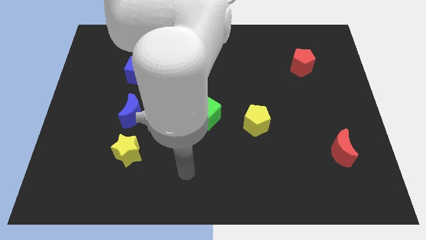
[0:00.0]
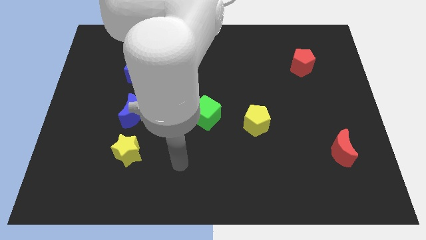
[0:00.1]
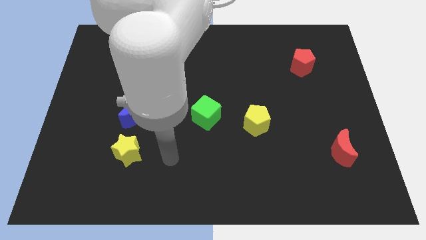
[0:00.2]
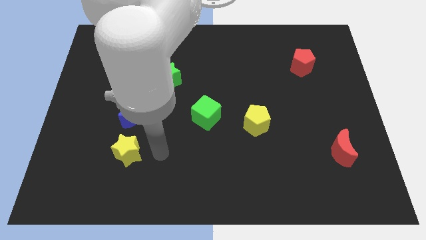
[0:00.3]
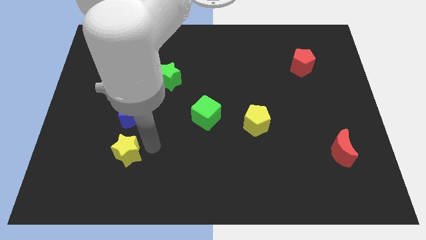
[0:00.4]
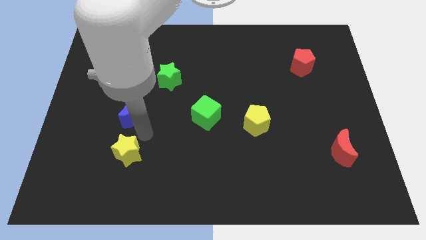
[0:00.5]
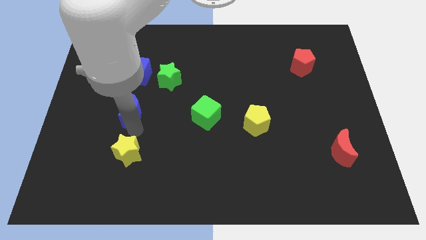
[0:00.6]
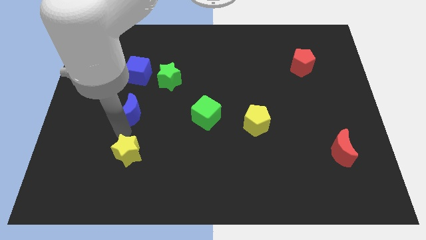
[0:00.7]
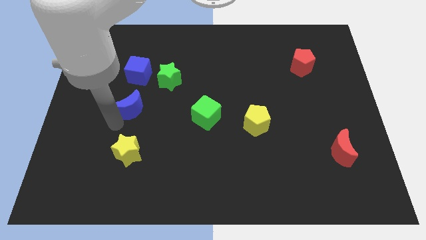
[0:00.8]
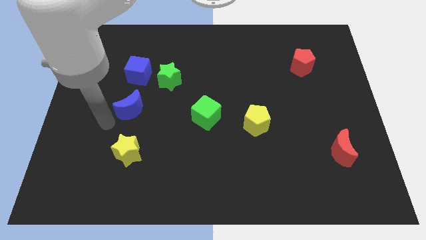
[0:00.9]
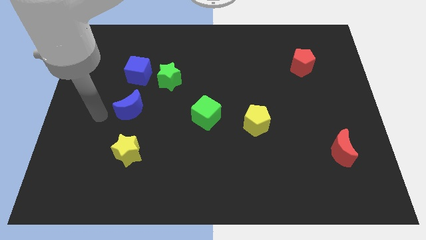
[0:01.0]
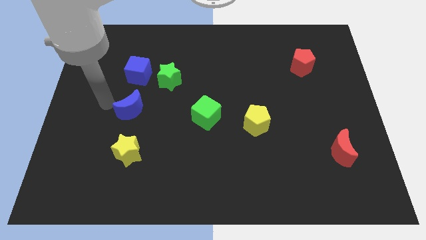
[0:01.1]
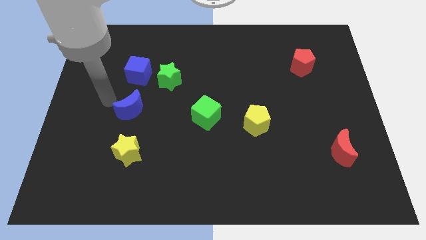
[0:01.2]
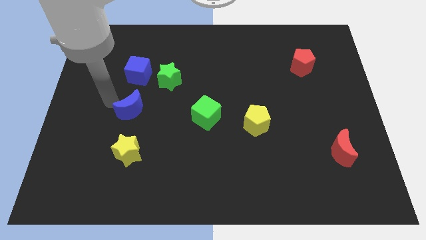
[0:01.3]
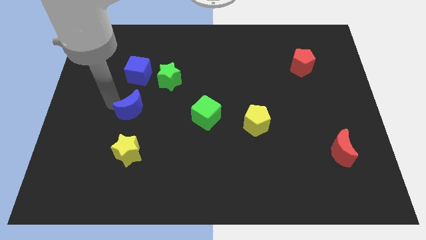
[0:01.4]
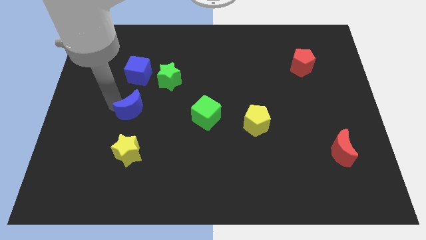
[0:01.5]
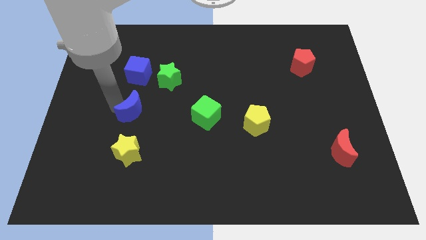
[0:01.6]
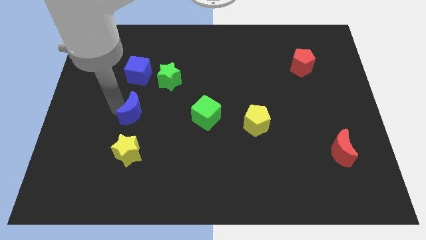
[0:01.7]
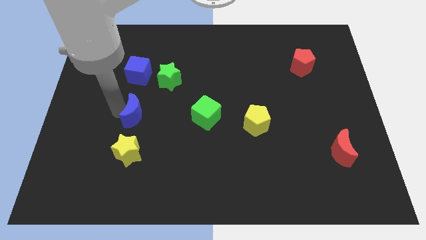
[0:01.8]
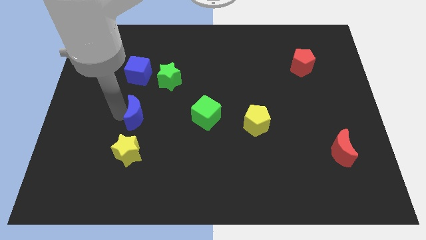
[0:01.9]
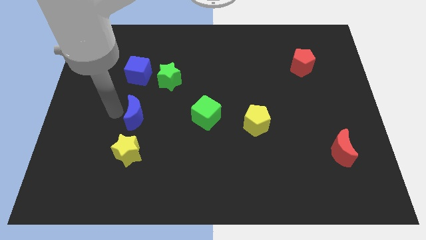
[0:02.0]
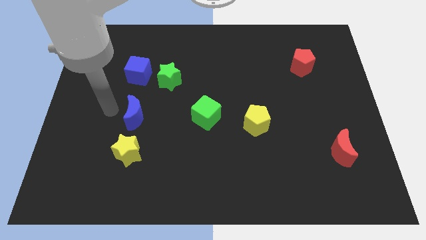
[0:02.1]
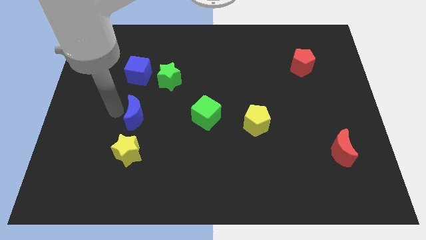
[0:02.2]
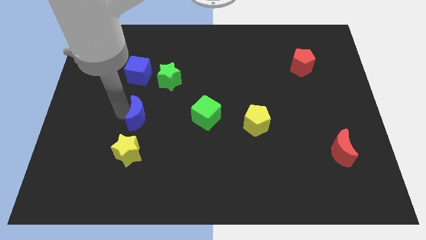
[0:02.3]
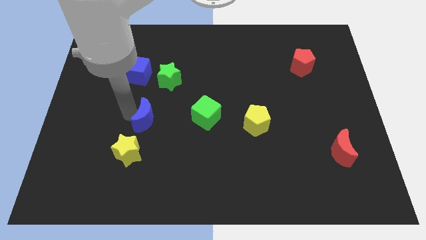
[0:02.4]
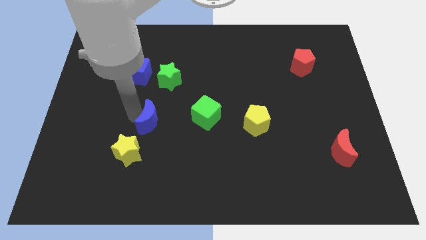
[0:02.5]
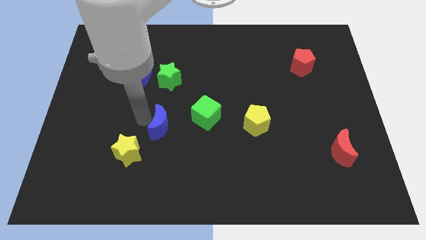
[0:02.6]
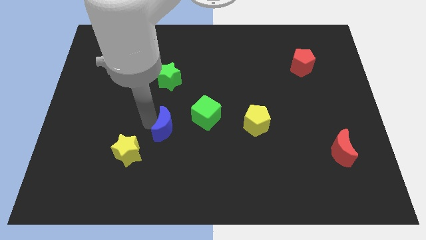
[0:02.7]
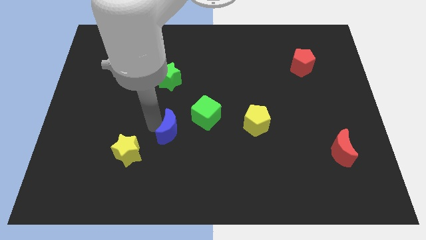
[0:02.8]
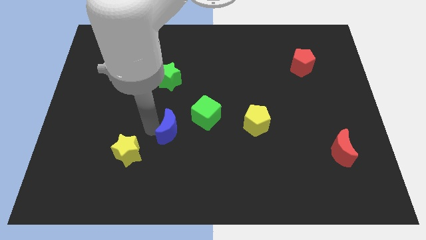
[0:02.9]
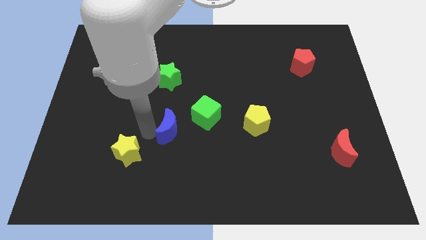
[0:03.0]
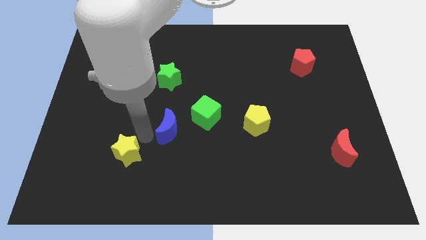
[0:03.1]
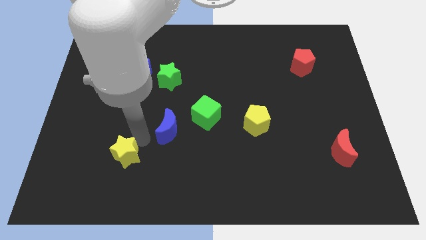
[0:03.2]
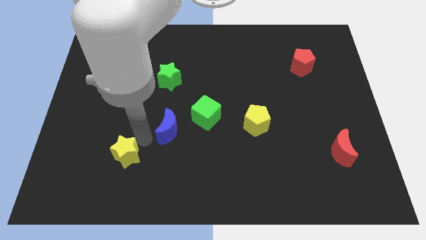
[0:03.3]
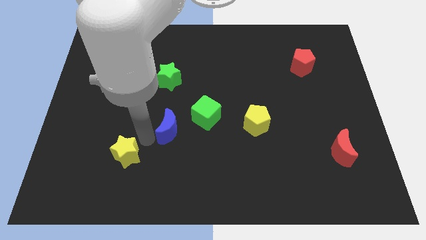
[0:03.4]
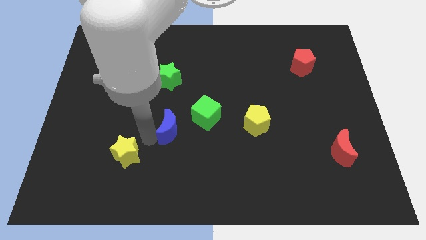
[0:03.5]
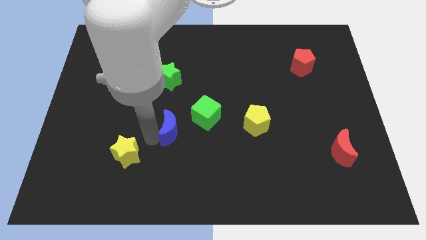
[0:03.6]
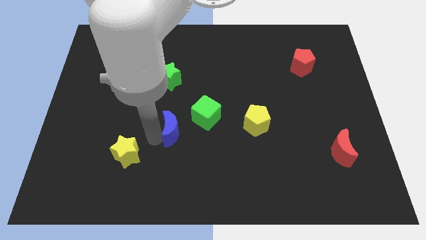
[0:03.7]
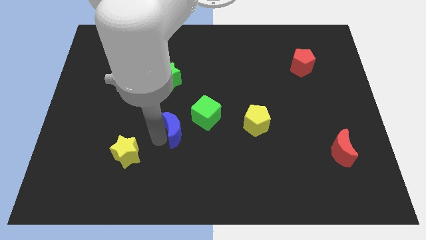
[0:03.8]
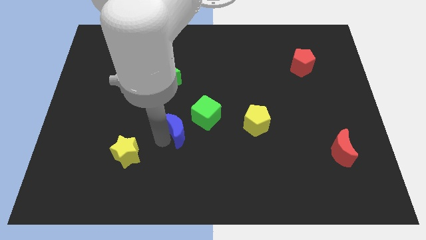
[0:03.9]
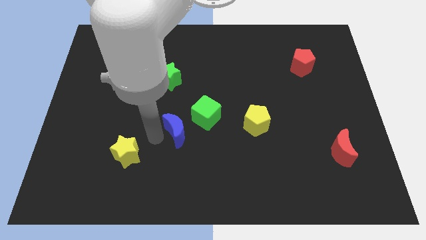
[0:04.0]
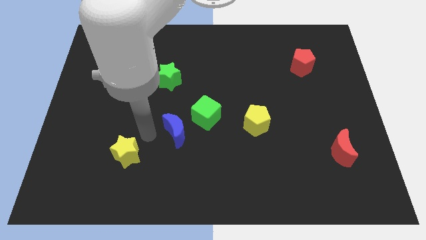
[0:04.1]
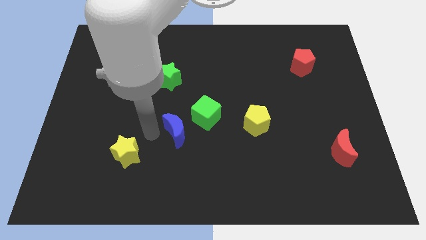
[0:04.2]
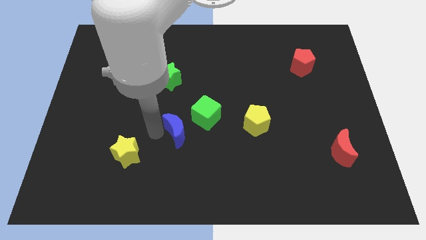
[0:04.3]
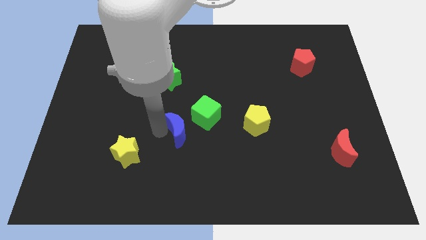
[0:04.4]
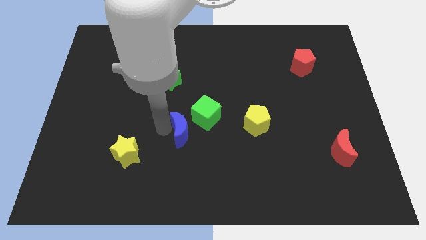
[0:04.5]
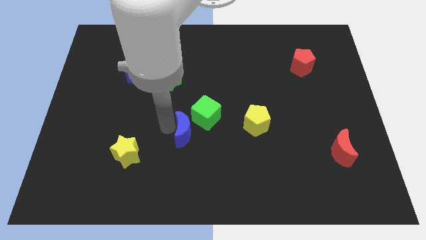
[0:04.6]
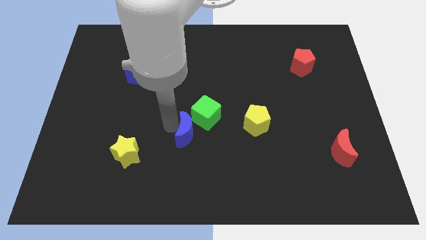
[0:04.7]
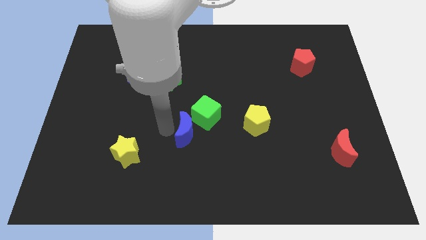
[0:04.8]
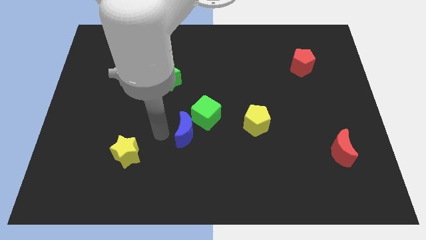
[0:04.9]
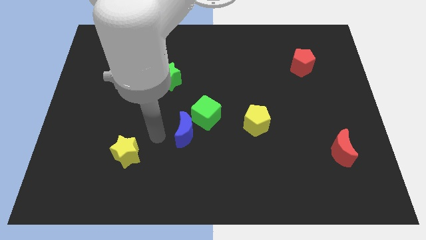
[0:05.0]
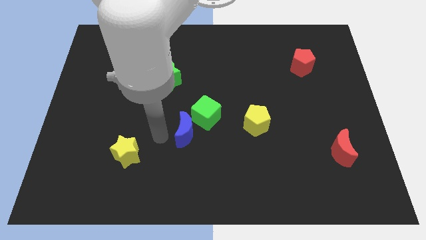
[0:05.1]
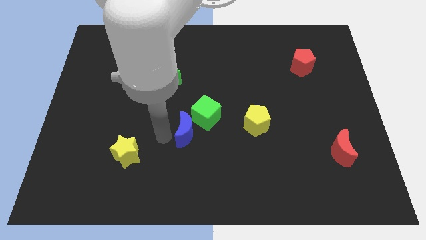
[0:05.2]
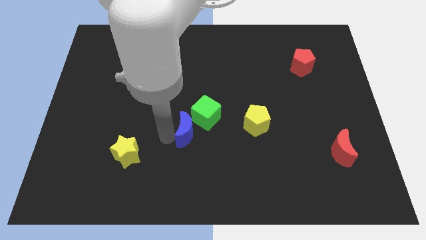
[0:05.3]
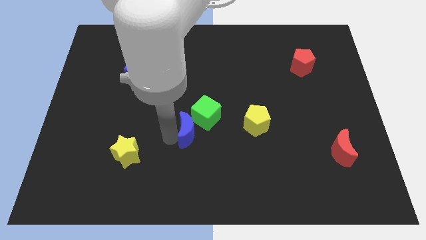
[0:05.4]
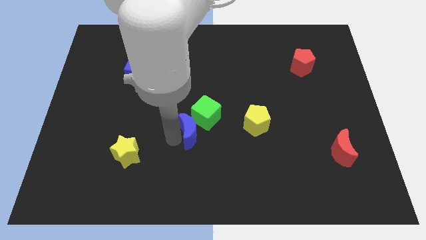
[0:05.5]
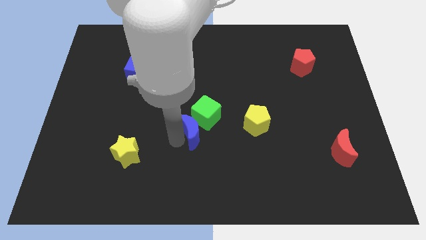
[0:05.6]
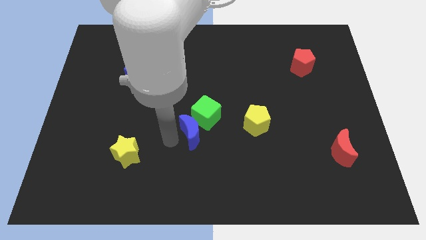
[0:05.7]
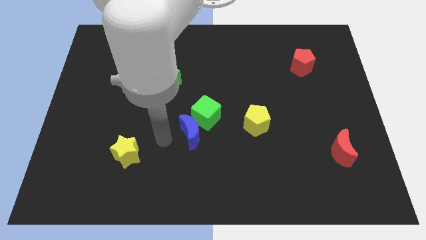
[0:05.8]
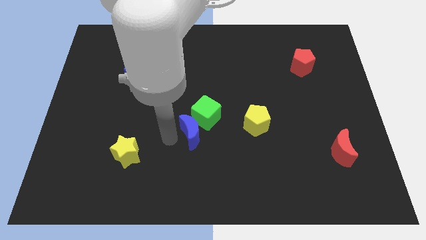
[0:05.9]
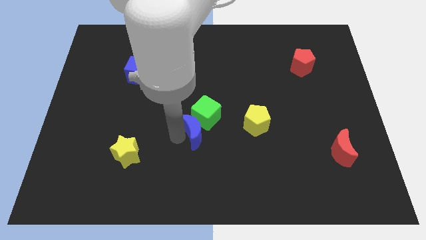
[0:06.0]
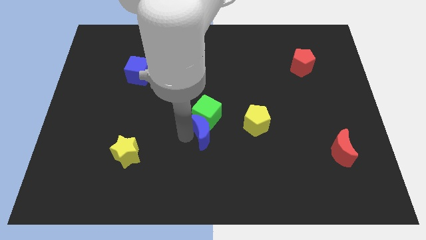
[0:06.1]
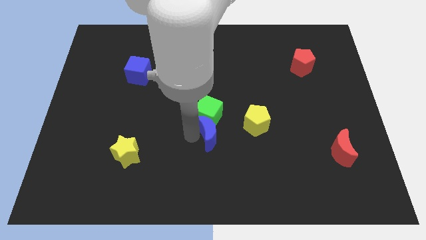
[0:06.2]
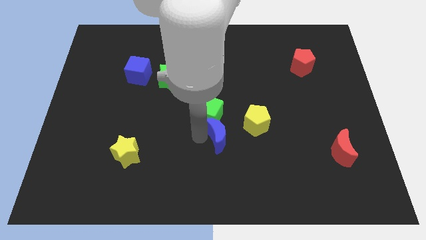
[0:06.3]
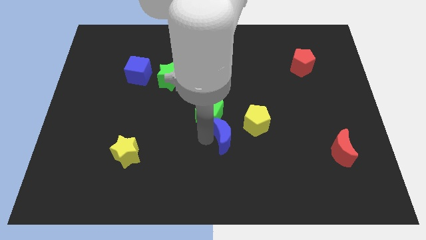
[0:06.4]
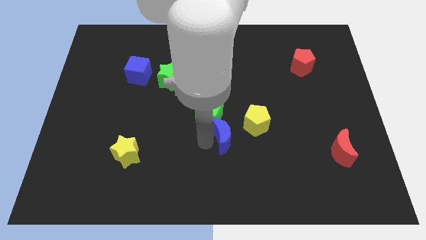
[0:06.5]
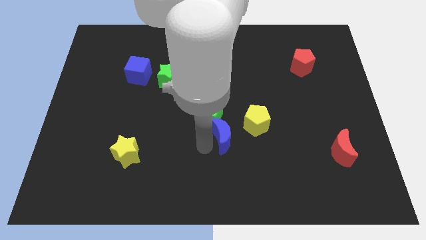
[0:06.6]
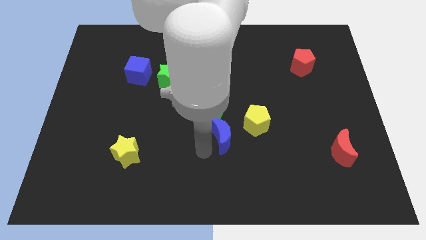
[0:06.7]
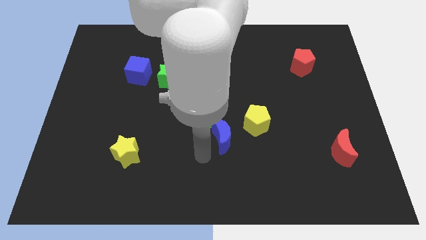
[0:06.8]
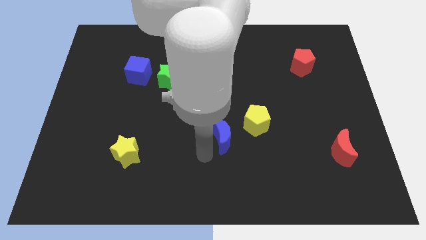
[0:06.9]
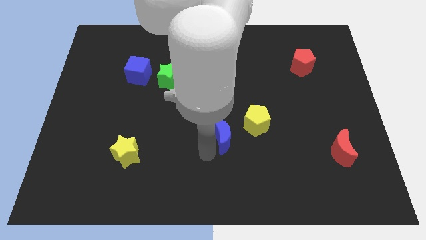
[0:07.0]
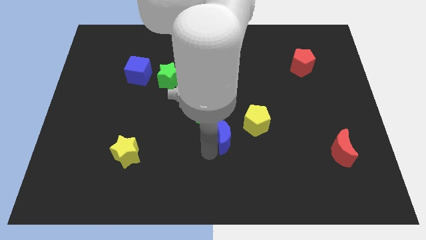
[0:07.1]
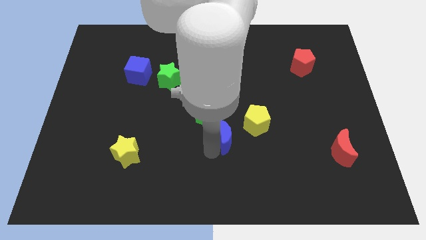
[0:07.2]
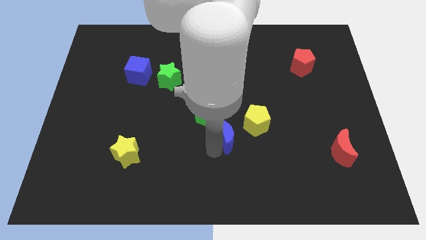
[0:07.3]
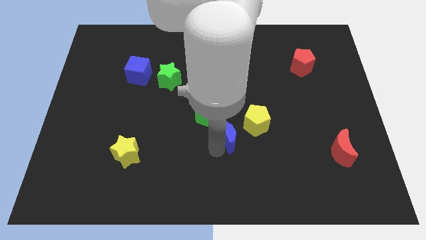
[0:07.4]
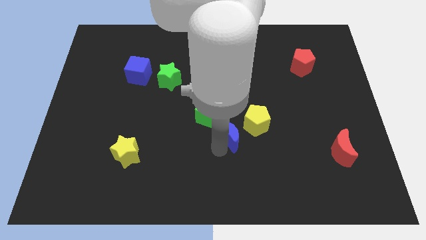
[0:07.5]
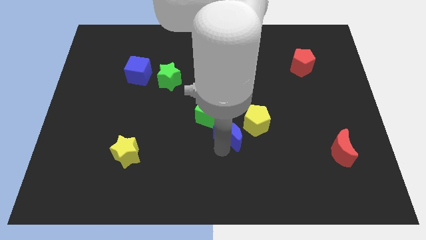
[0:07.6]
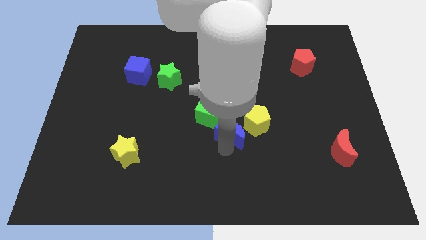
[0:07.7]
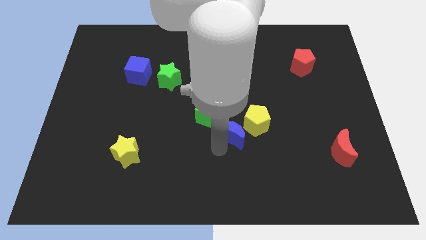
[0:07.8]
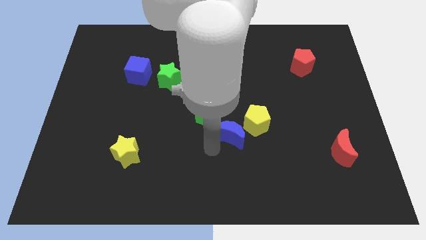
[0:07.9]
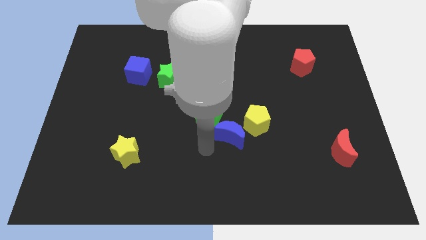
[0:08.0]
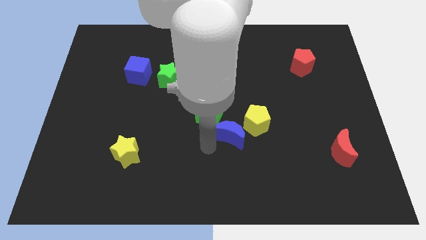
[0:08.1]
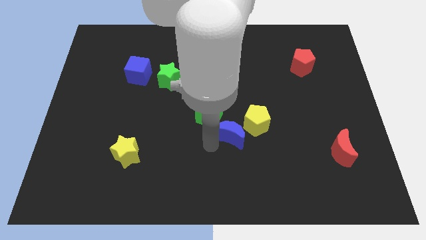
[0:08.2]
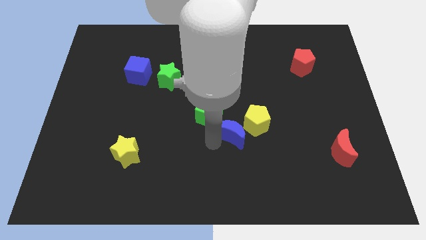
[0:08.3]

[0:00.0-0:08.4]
put the blue moon to the yellow pentagon
